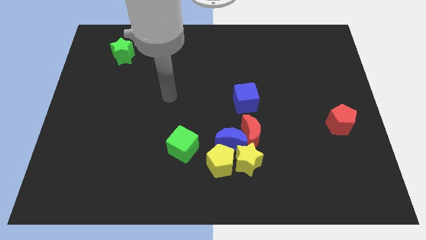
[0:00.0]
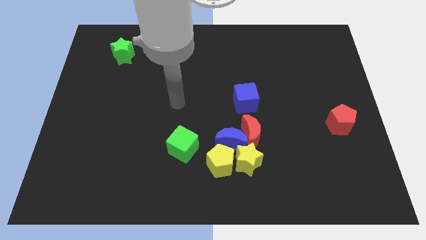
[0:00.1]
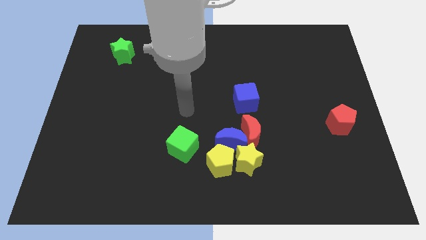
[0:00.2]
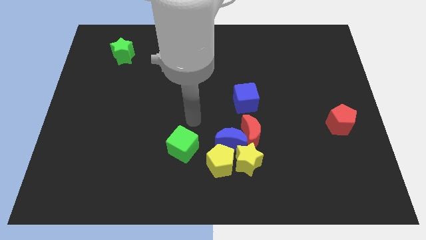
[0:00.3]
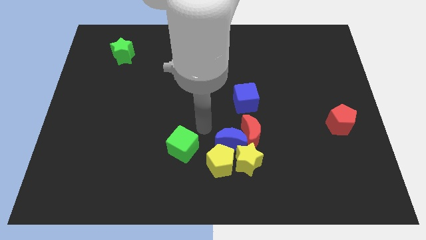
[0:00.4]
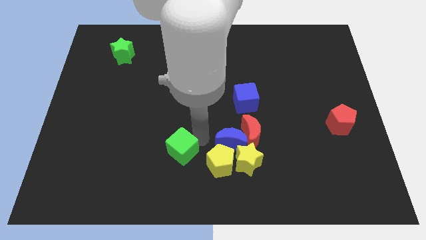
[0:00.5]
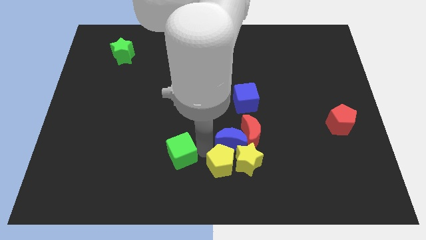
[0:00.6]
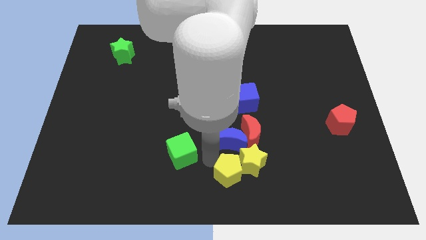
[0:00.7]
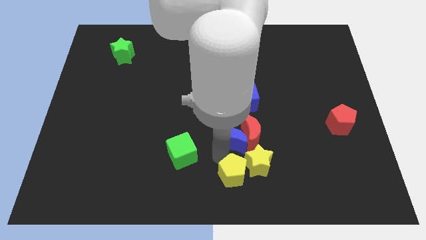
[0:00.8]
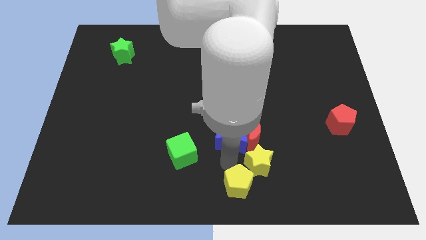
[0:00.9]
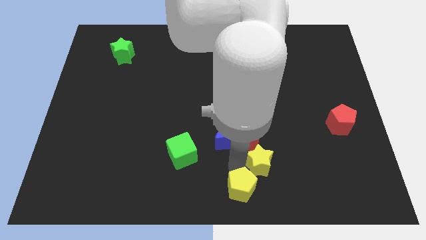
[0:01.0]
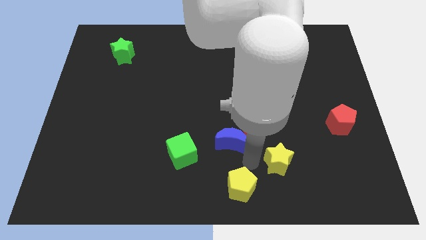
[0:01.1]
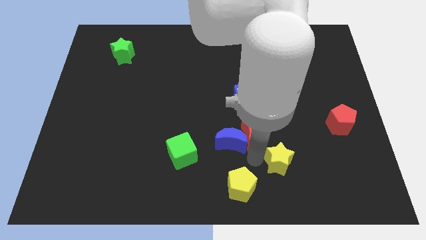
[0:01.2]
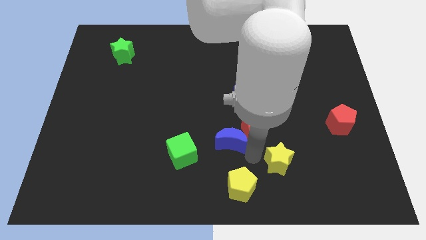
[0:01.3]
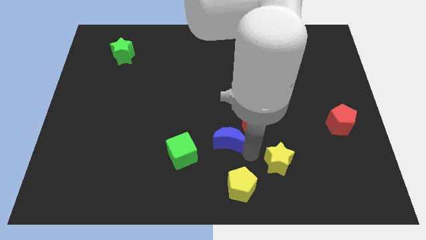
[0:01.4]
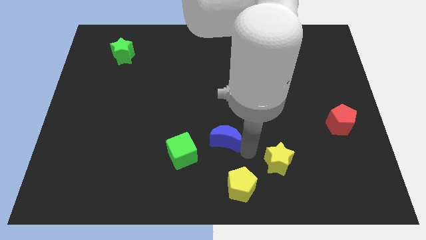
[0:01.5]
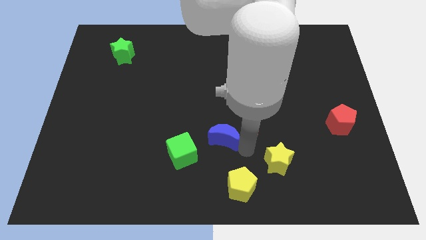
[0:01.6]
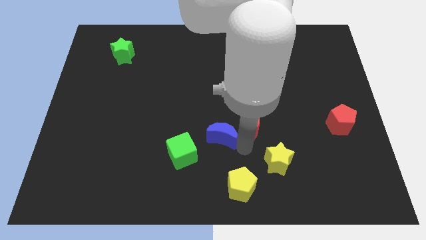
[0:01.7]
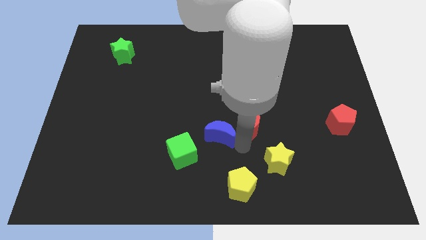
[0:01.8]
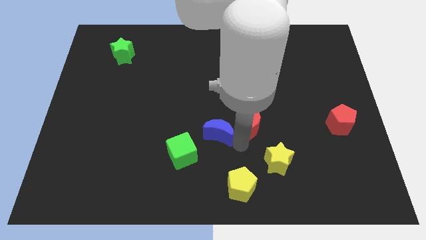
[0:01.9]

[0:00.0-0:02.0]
move the blue moon away from the red moon, yellow star, and yellow pentagon

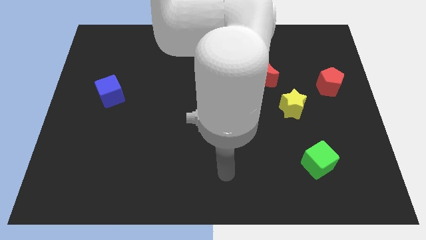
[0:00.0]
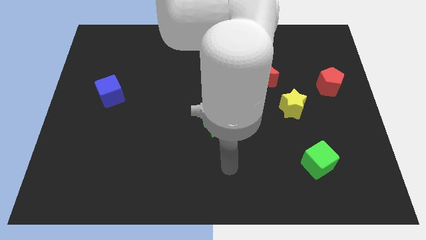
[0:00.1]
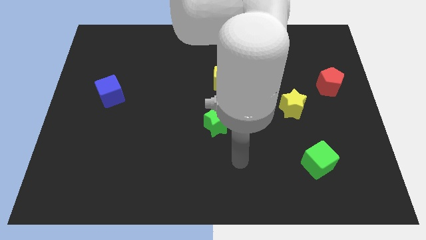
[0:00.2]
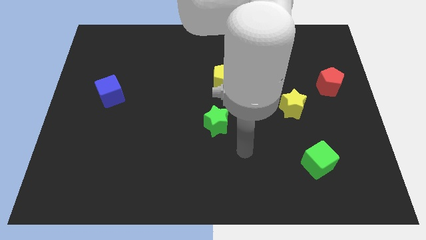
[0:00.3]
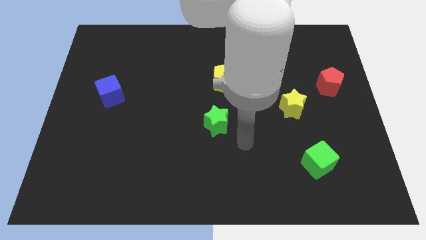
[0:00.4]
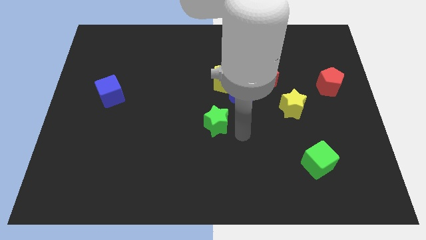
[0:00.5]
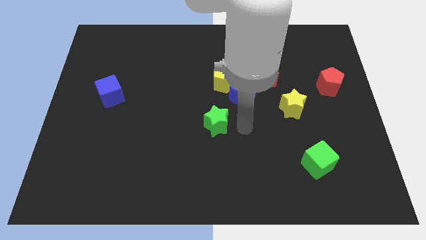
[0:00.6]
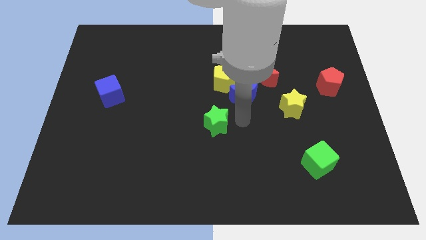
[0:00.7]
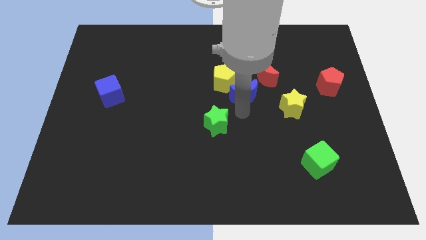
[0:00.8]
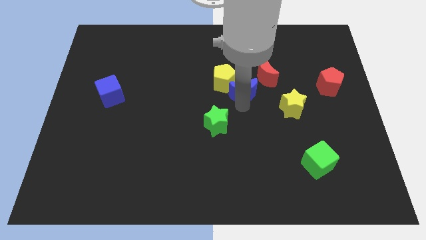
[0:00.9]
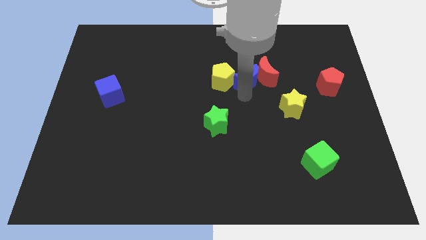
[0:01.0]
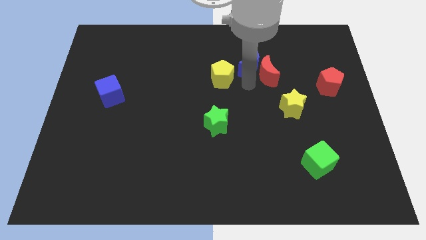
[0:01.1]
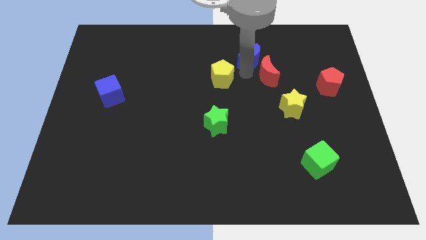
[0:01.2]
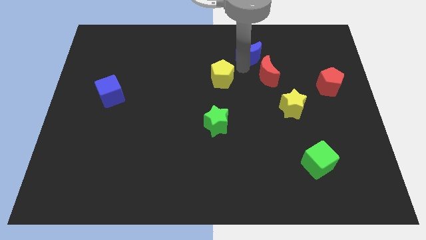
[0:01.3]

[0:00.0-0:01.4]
pull the yellow pentagon apart from the blue moon

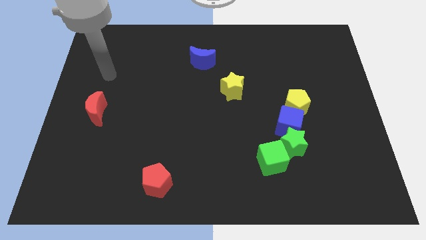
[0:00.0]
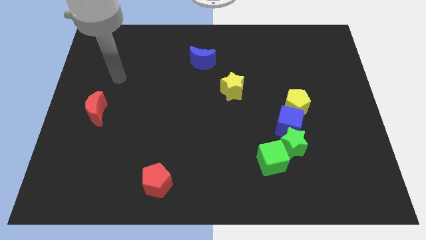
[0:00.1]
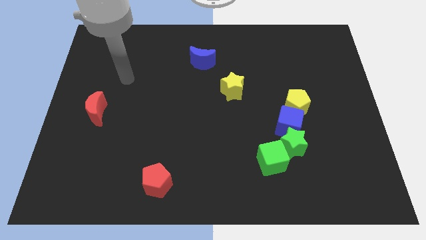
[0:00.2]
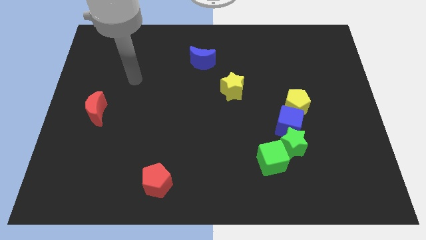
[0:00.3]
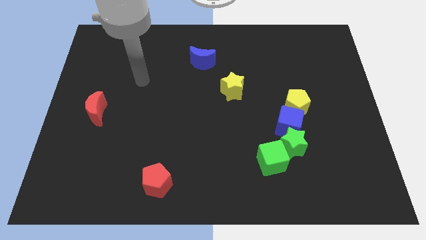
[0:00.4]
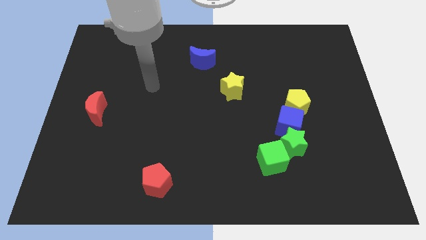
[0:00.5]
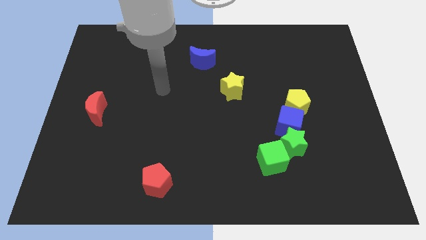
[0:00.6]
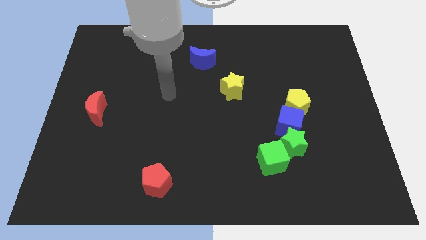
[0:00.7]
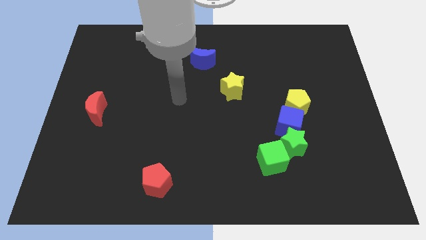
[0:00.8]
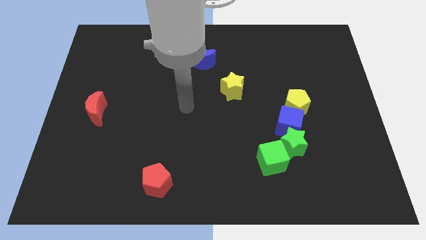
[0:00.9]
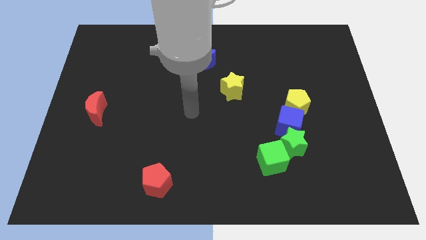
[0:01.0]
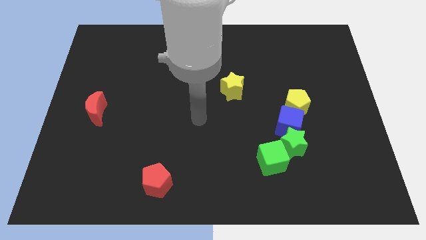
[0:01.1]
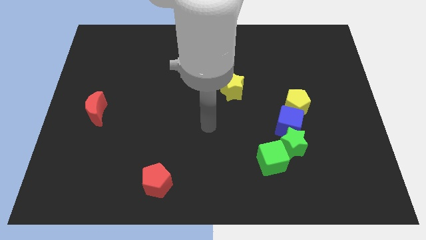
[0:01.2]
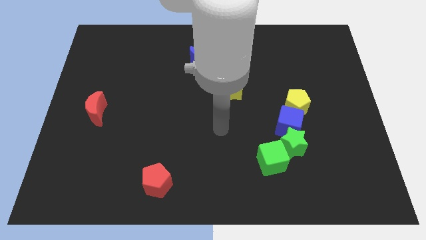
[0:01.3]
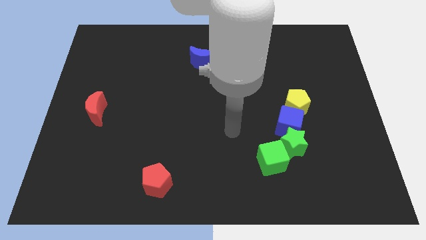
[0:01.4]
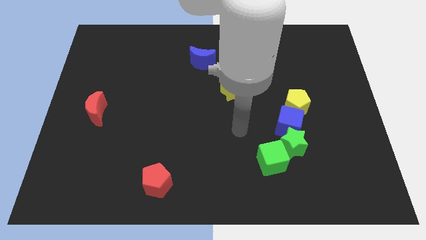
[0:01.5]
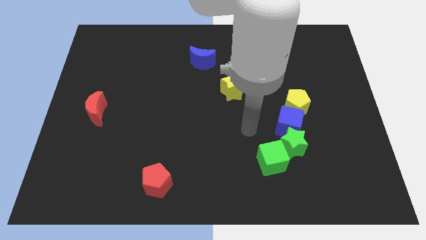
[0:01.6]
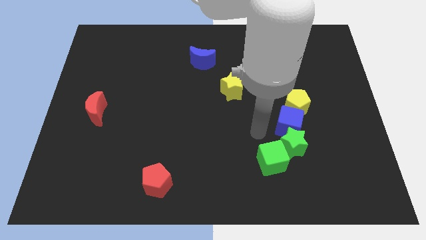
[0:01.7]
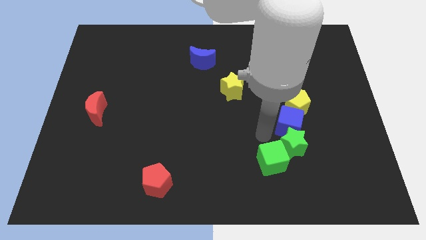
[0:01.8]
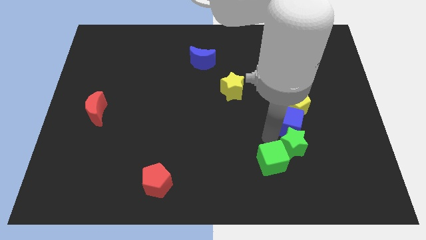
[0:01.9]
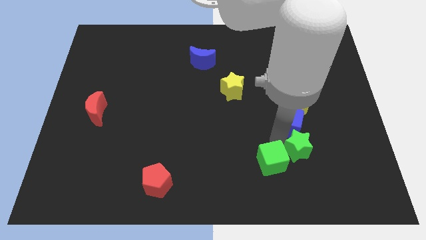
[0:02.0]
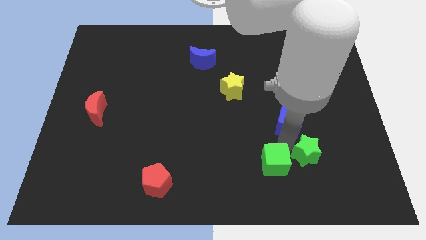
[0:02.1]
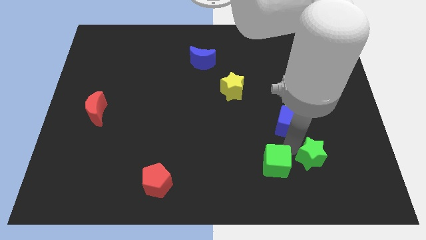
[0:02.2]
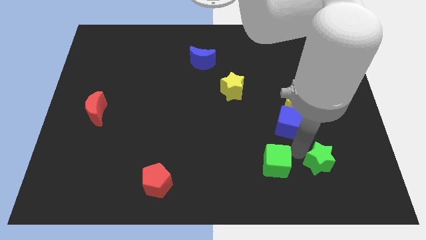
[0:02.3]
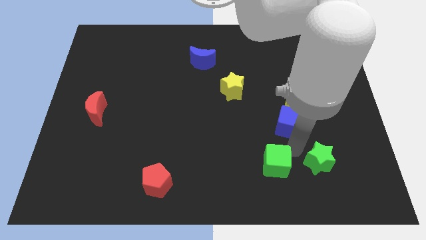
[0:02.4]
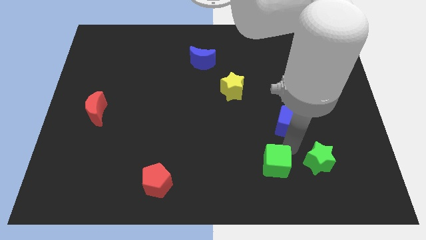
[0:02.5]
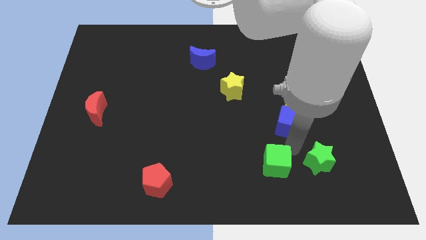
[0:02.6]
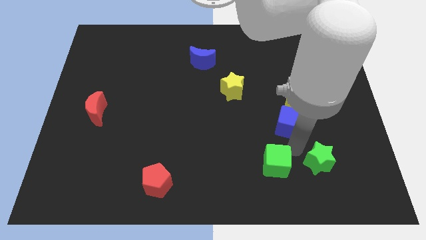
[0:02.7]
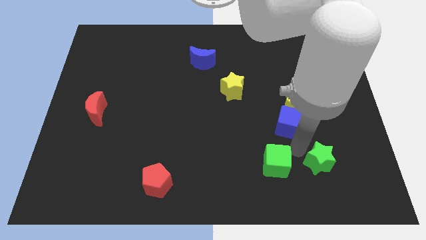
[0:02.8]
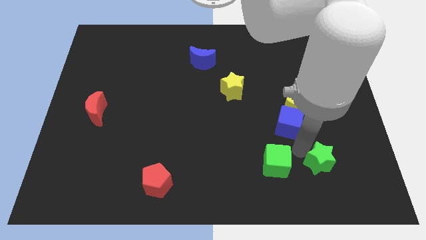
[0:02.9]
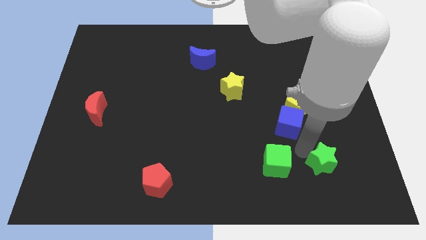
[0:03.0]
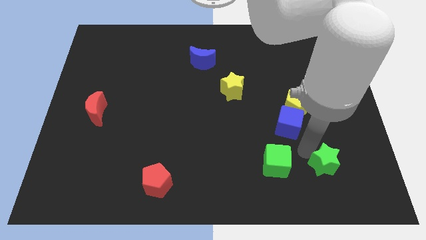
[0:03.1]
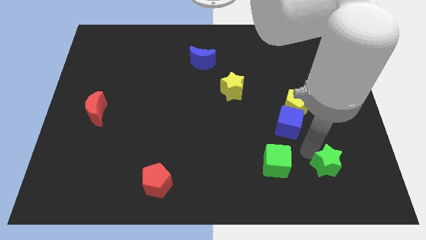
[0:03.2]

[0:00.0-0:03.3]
move the green star away from the blue cube and green cube

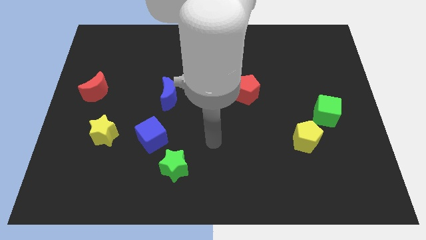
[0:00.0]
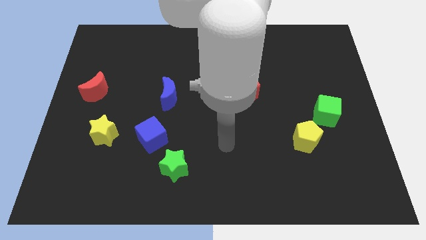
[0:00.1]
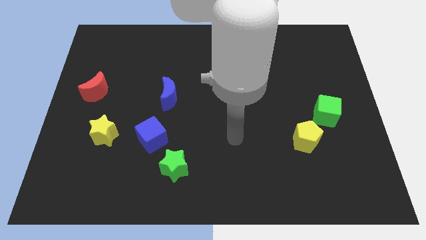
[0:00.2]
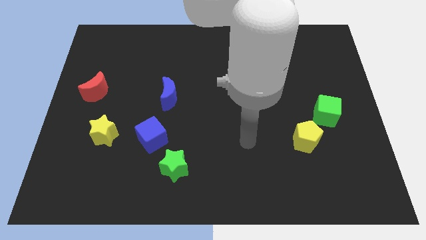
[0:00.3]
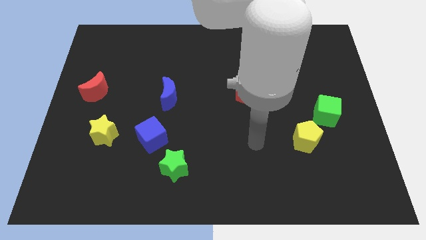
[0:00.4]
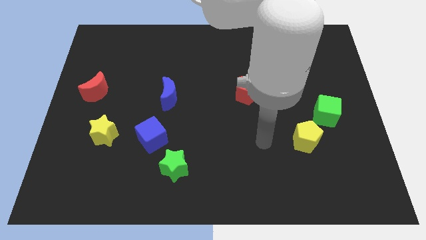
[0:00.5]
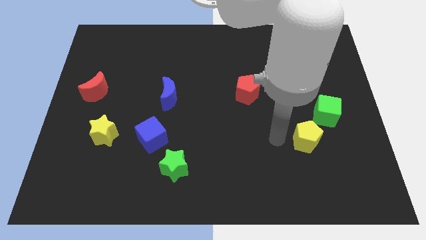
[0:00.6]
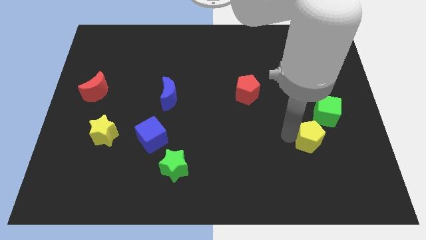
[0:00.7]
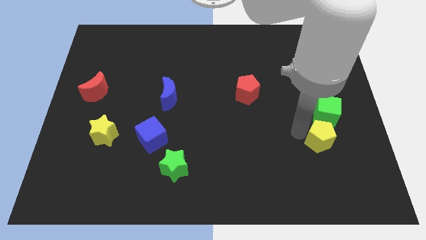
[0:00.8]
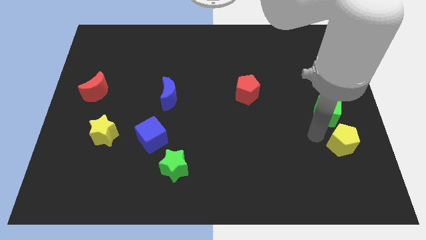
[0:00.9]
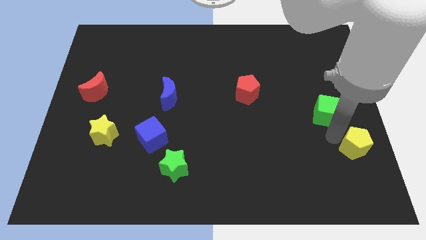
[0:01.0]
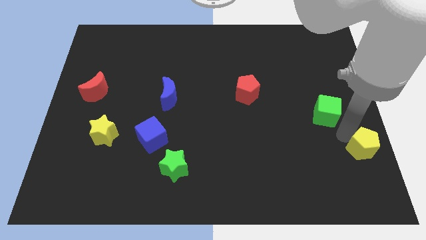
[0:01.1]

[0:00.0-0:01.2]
separate the green cube from the yellow pentagon

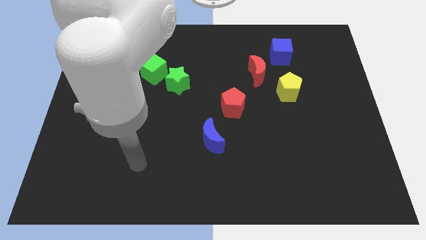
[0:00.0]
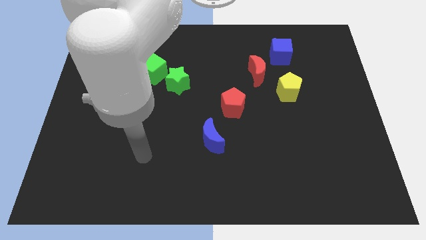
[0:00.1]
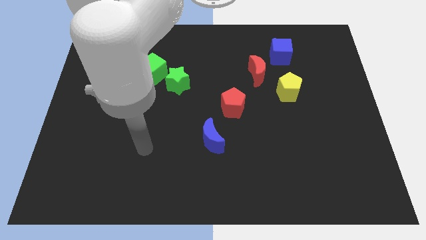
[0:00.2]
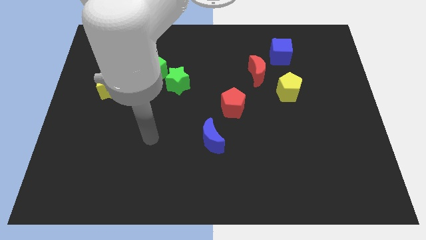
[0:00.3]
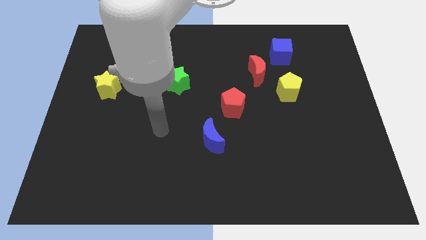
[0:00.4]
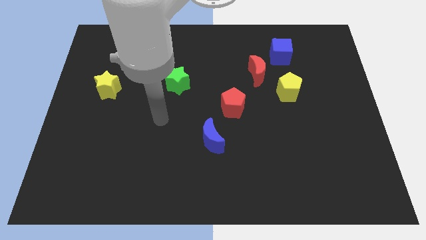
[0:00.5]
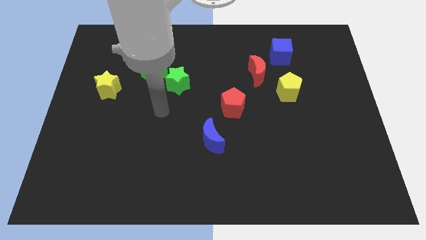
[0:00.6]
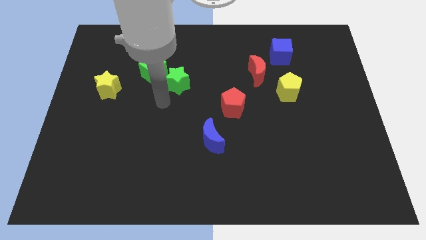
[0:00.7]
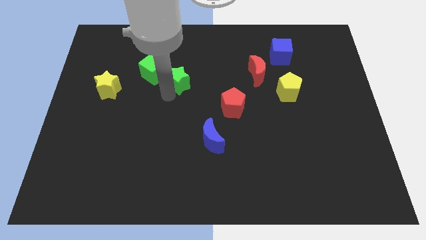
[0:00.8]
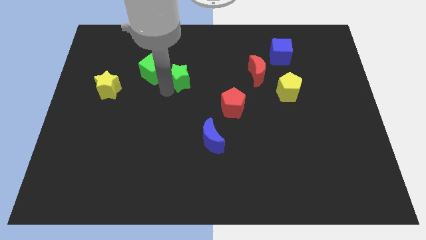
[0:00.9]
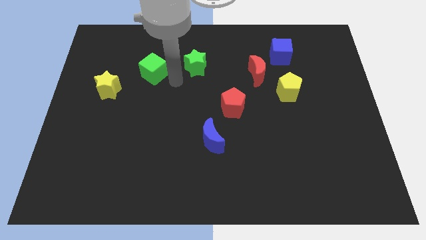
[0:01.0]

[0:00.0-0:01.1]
separate the green cube from the green star

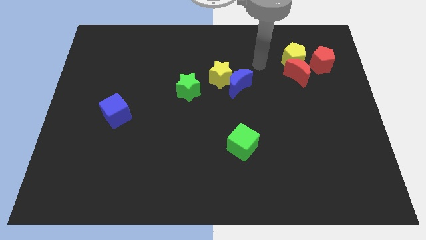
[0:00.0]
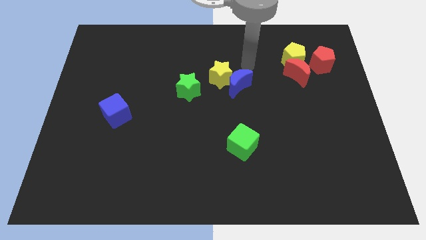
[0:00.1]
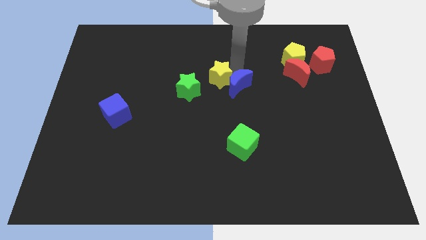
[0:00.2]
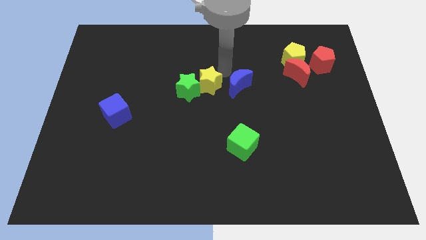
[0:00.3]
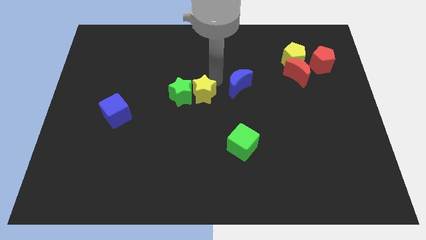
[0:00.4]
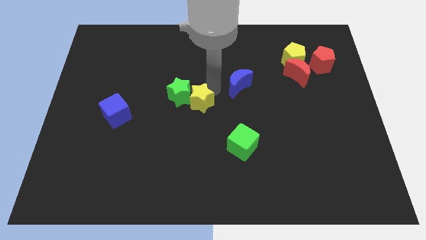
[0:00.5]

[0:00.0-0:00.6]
move the blue moon away from the yellow star
